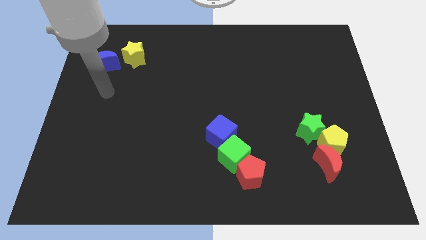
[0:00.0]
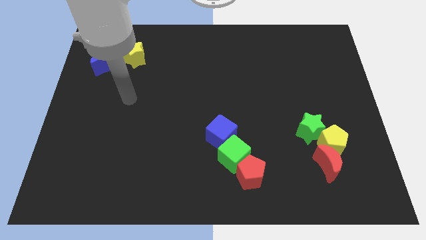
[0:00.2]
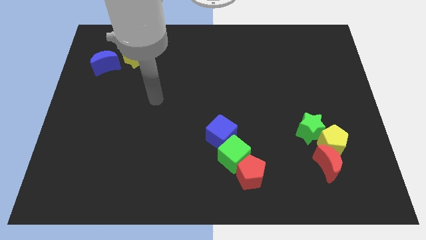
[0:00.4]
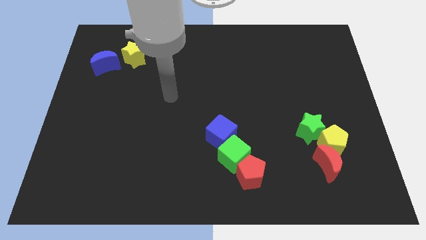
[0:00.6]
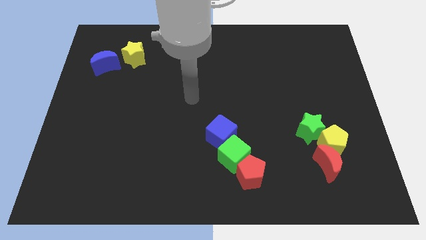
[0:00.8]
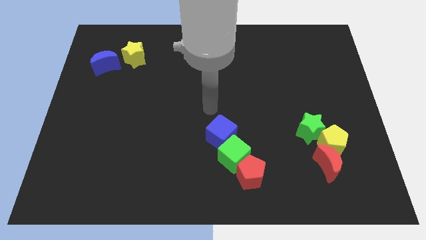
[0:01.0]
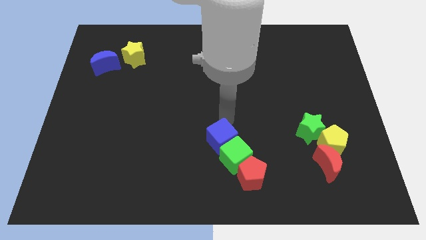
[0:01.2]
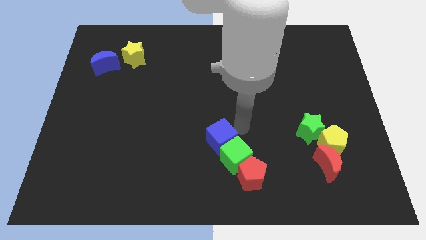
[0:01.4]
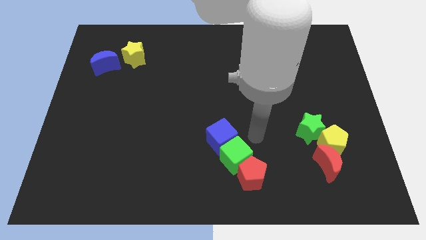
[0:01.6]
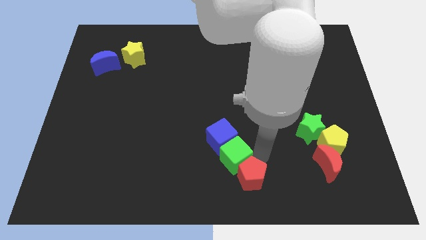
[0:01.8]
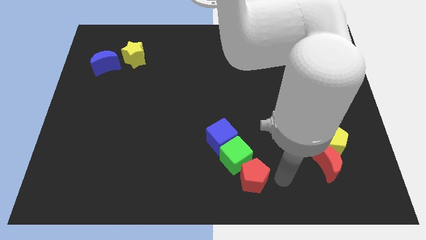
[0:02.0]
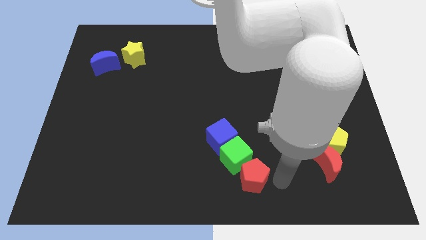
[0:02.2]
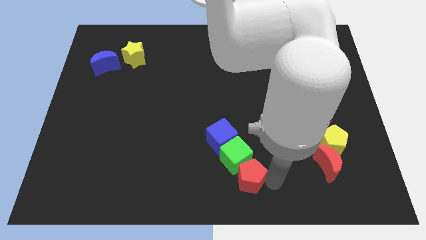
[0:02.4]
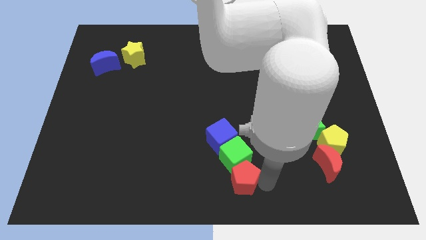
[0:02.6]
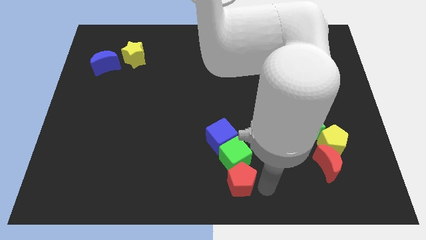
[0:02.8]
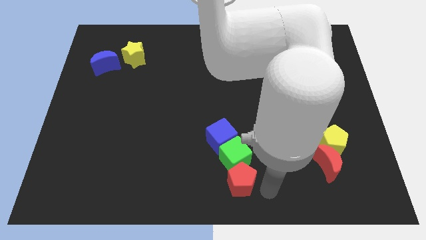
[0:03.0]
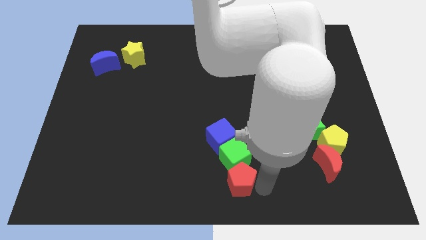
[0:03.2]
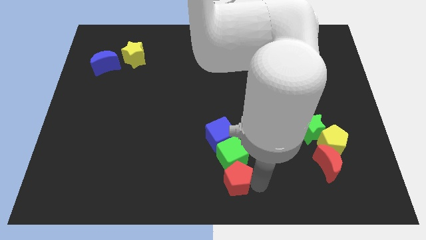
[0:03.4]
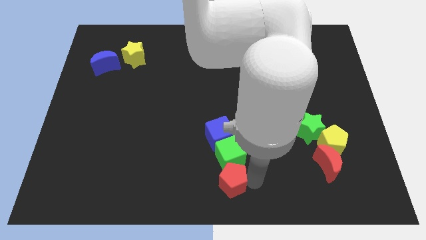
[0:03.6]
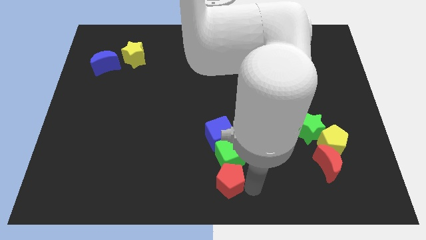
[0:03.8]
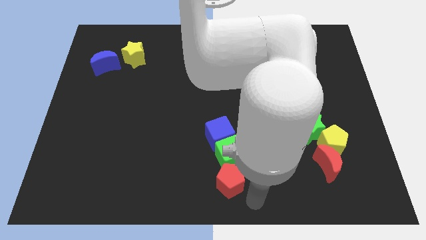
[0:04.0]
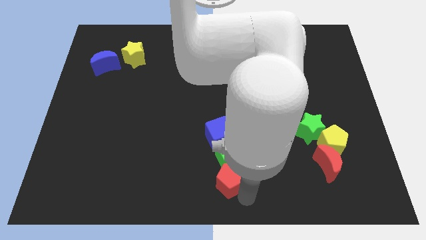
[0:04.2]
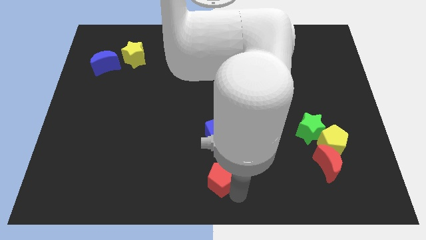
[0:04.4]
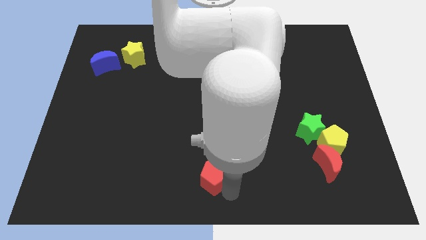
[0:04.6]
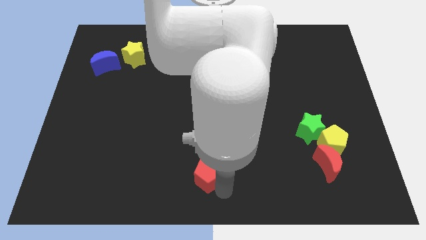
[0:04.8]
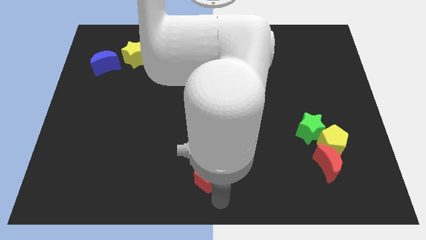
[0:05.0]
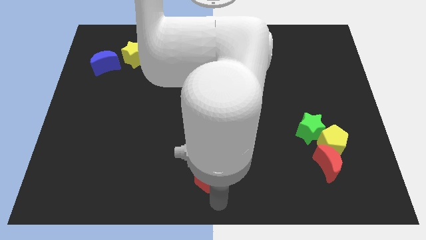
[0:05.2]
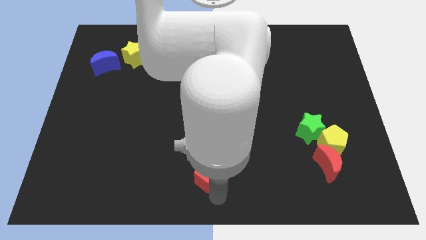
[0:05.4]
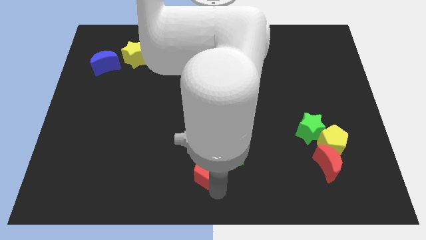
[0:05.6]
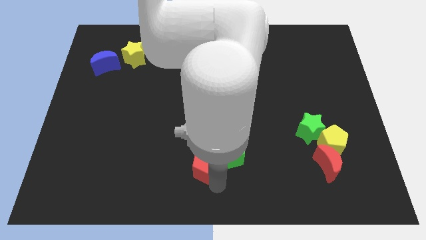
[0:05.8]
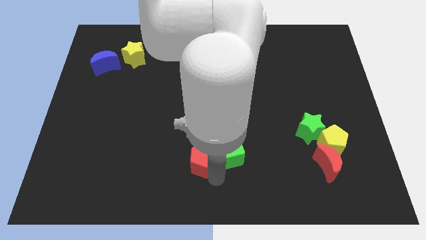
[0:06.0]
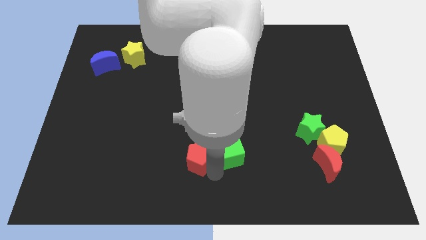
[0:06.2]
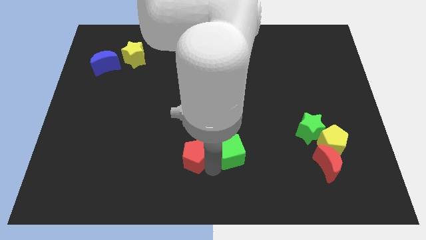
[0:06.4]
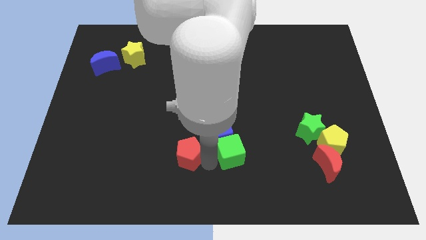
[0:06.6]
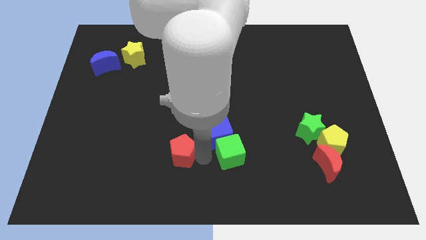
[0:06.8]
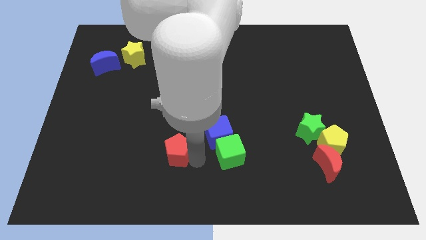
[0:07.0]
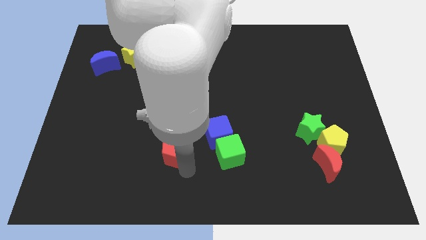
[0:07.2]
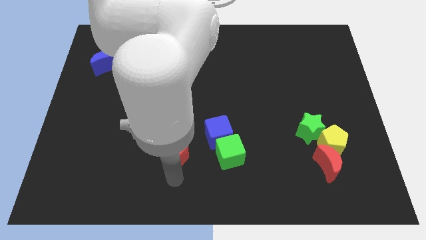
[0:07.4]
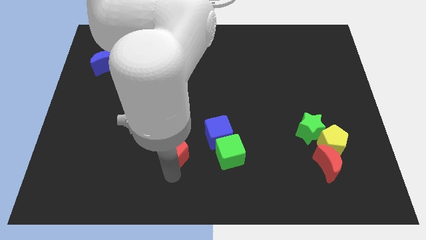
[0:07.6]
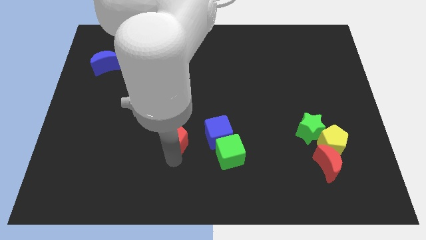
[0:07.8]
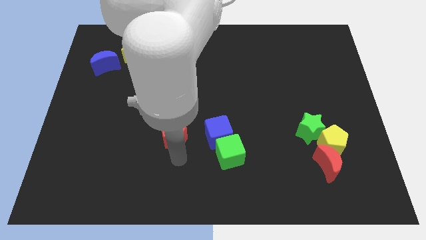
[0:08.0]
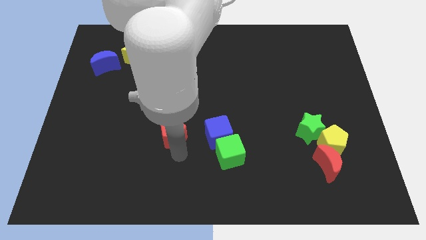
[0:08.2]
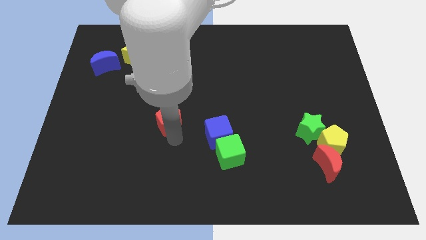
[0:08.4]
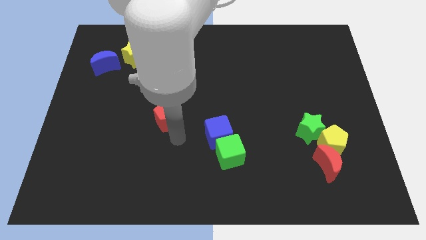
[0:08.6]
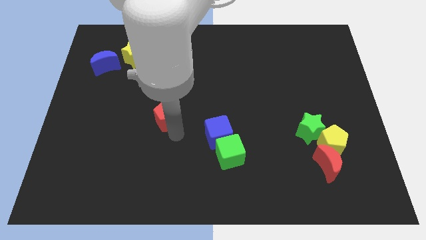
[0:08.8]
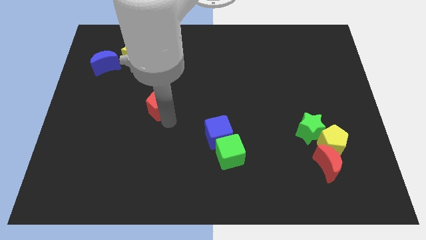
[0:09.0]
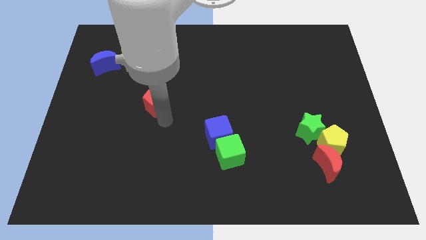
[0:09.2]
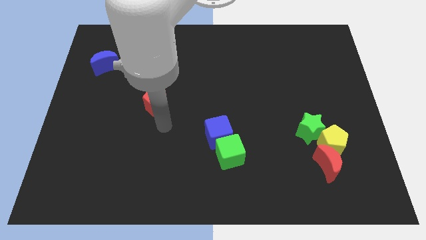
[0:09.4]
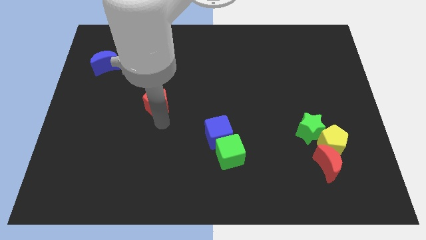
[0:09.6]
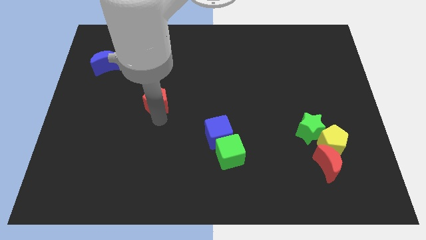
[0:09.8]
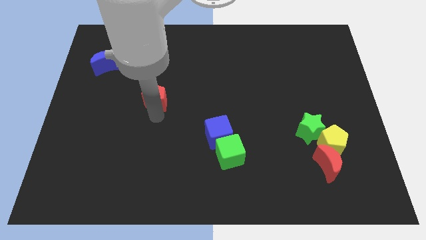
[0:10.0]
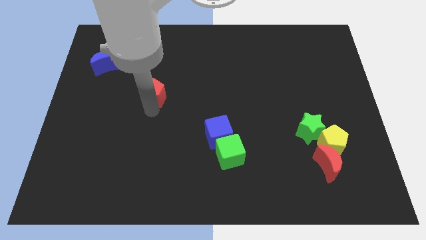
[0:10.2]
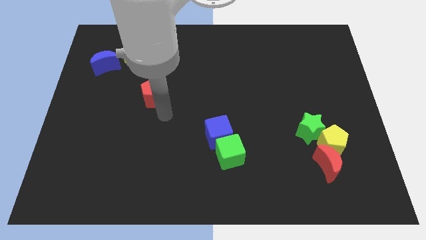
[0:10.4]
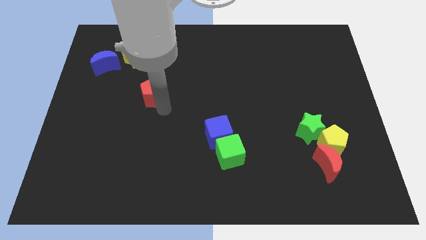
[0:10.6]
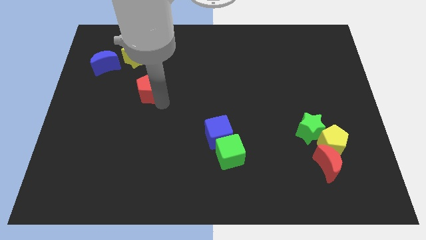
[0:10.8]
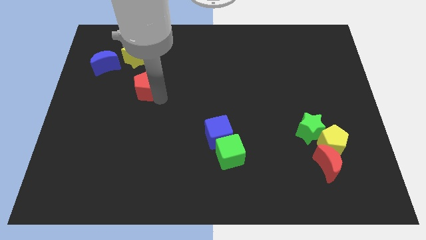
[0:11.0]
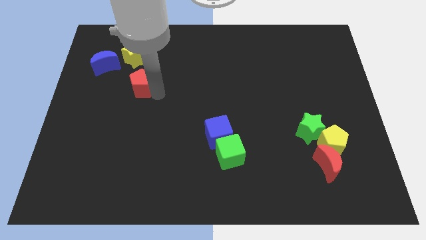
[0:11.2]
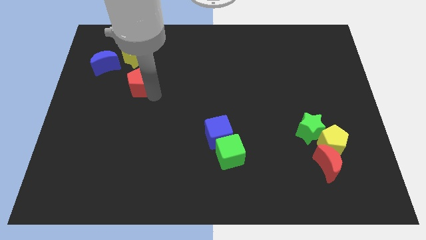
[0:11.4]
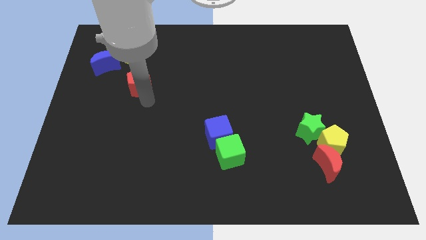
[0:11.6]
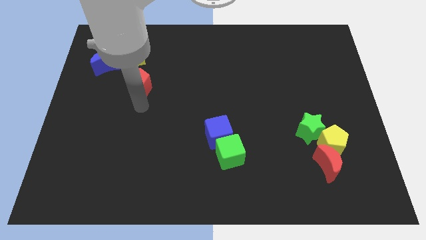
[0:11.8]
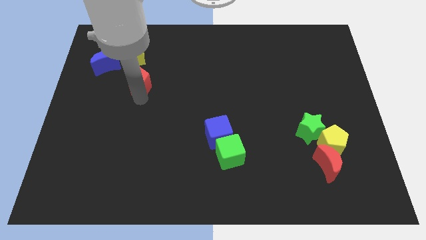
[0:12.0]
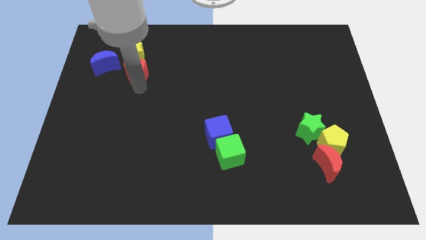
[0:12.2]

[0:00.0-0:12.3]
push the red pentagon close to the yellow star

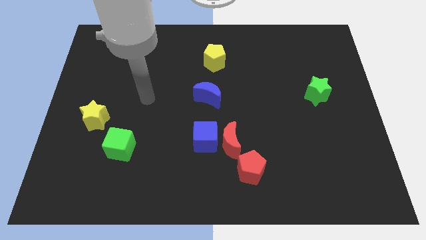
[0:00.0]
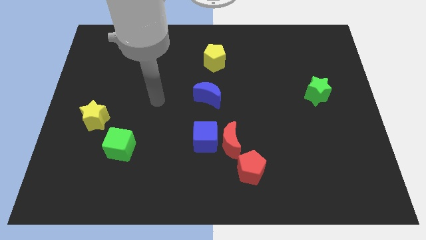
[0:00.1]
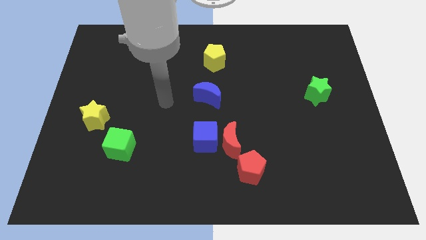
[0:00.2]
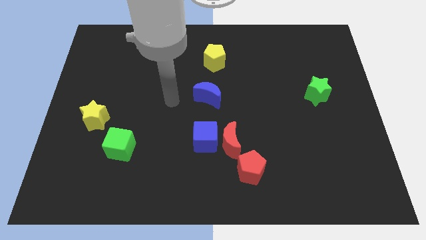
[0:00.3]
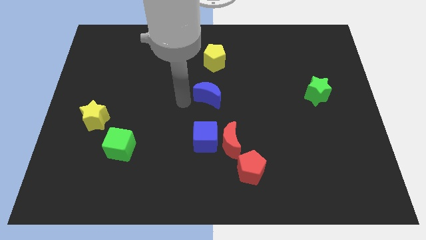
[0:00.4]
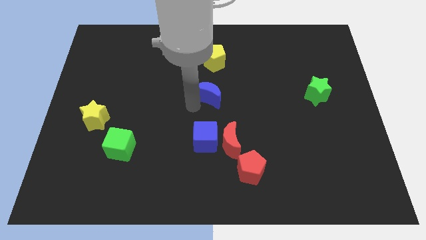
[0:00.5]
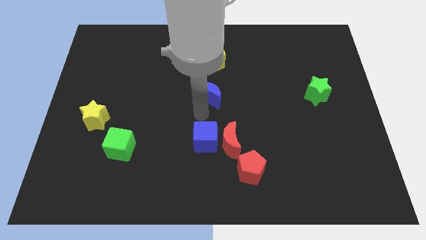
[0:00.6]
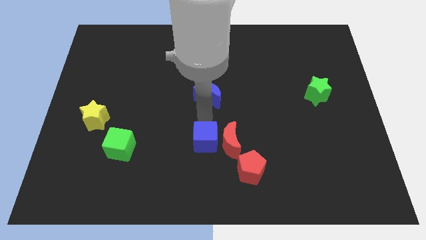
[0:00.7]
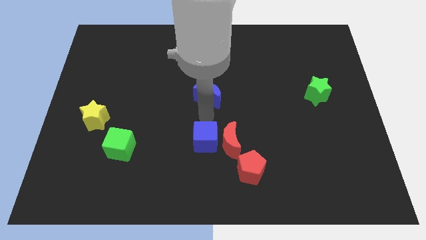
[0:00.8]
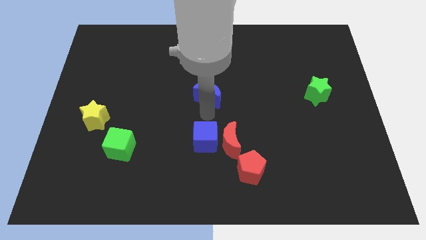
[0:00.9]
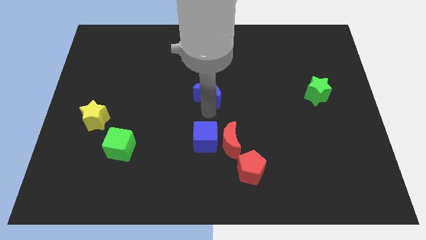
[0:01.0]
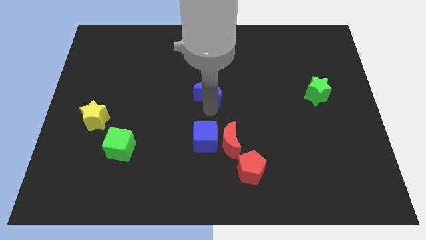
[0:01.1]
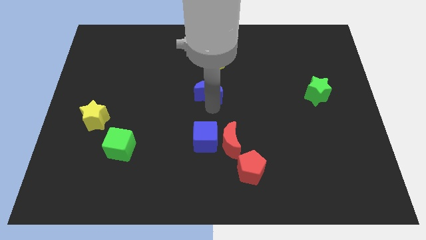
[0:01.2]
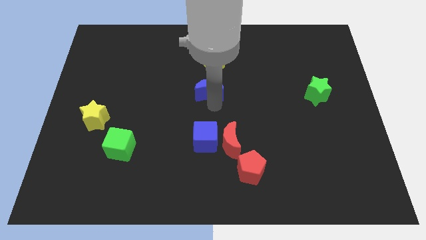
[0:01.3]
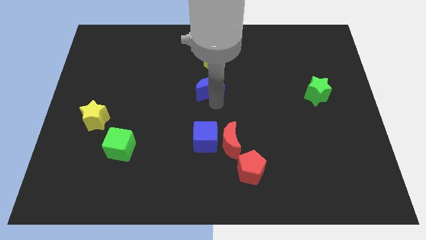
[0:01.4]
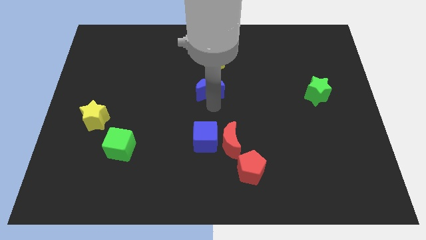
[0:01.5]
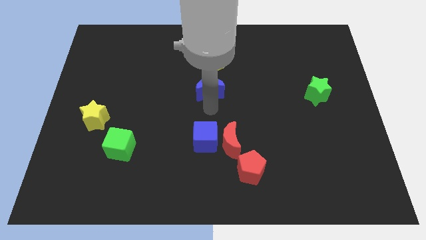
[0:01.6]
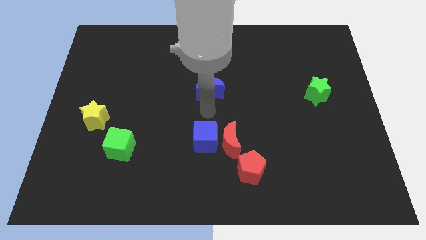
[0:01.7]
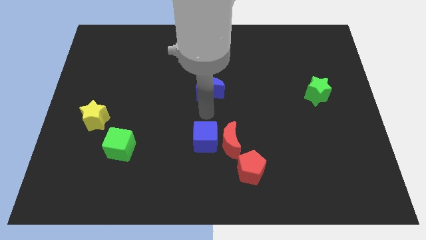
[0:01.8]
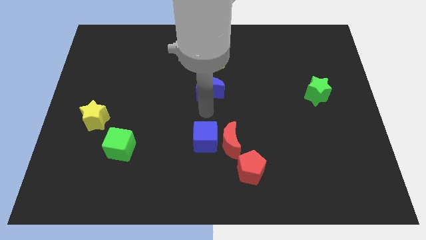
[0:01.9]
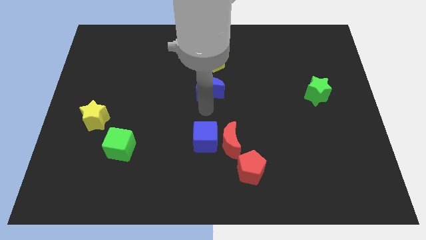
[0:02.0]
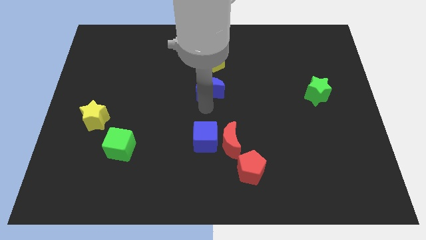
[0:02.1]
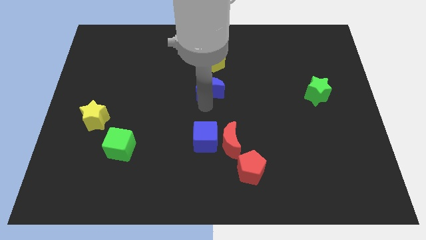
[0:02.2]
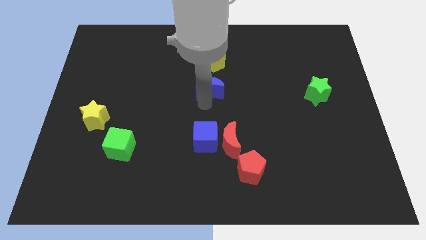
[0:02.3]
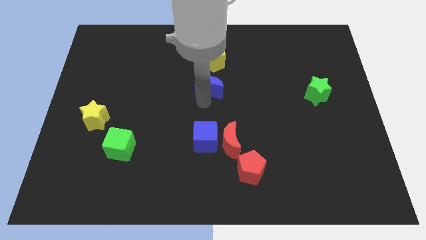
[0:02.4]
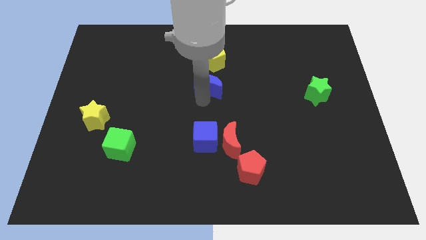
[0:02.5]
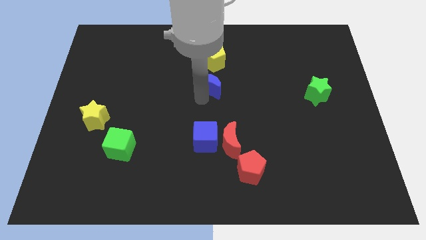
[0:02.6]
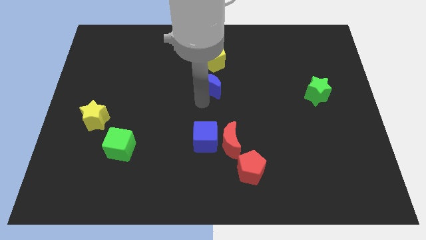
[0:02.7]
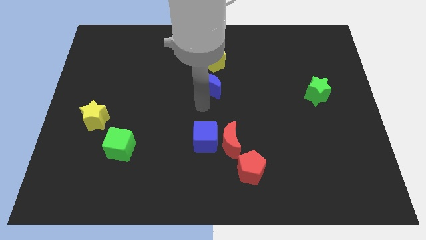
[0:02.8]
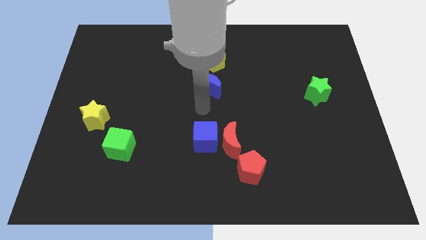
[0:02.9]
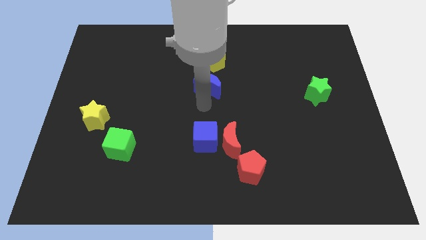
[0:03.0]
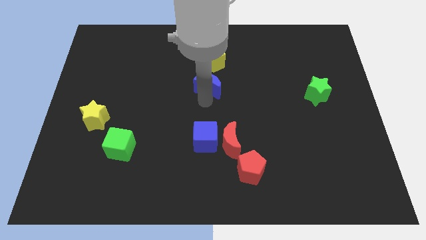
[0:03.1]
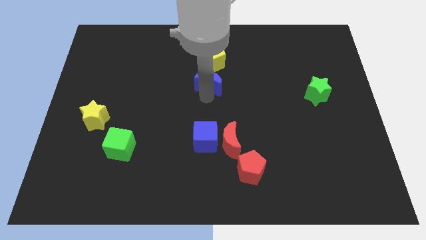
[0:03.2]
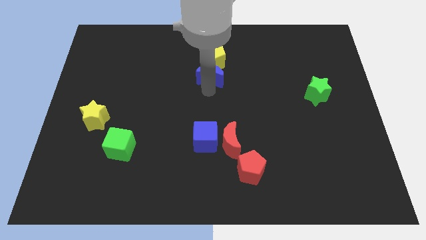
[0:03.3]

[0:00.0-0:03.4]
push the blue moon to the yellow pentagon
